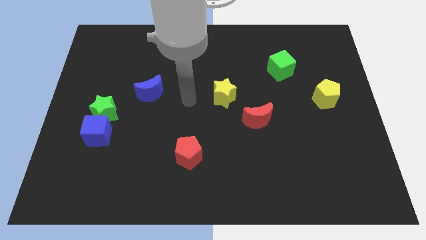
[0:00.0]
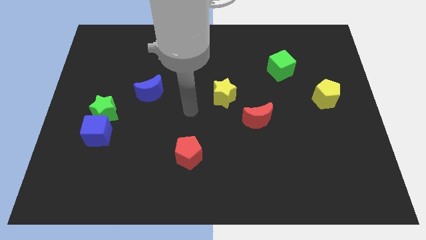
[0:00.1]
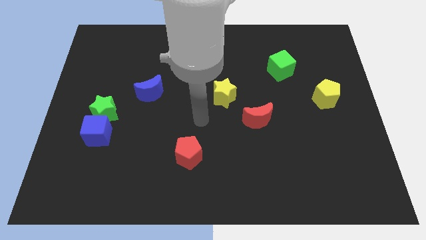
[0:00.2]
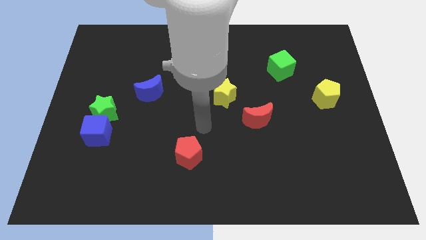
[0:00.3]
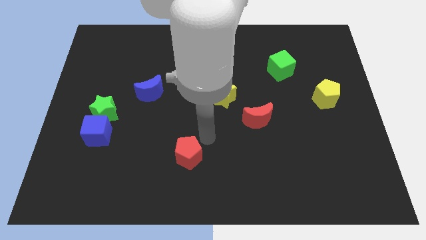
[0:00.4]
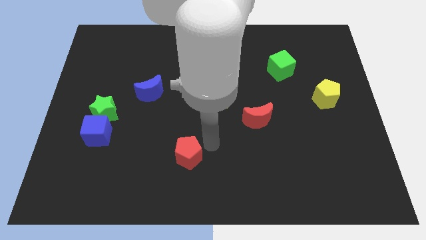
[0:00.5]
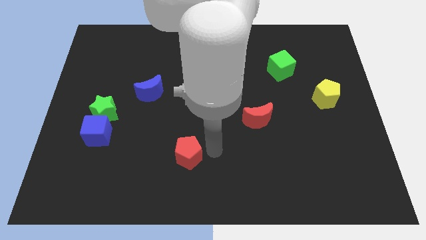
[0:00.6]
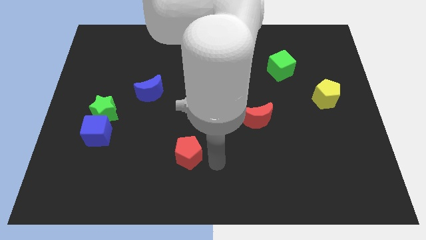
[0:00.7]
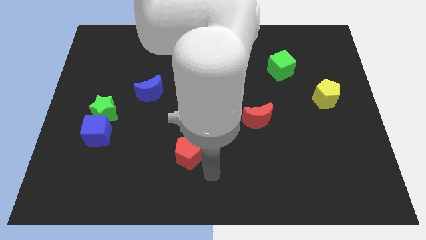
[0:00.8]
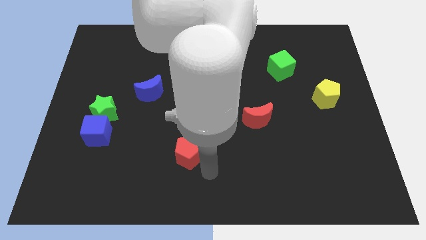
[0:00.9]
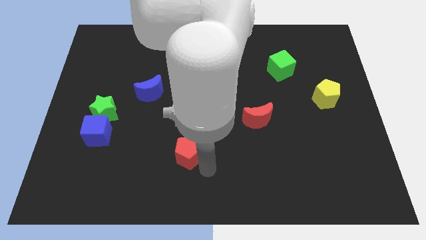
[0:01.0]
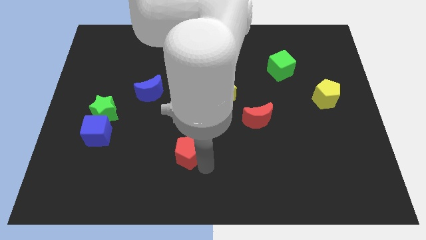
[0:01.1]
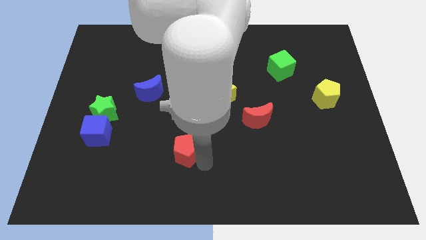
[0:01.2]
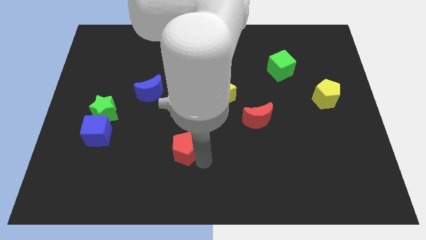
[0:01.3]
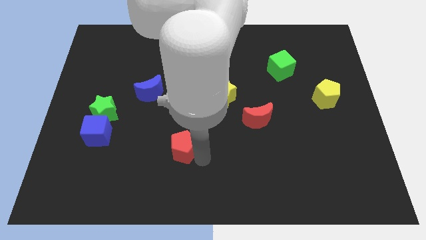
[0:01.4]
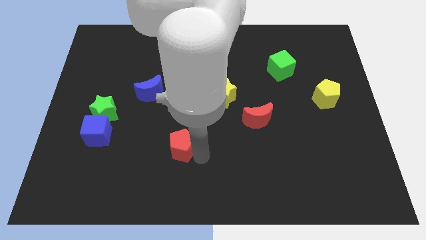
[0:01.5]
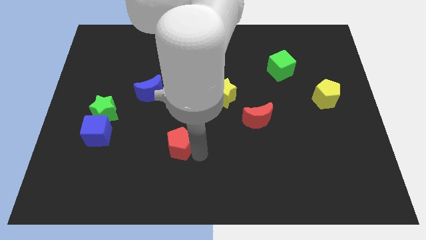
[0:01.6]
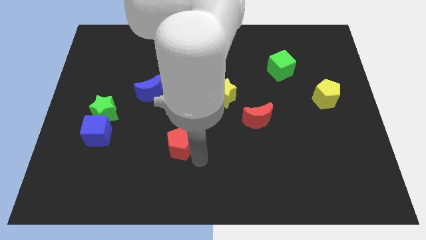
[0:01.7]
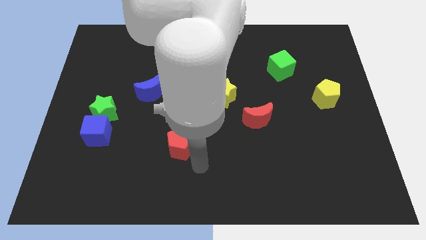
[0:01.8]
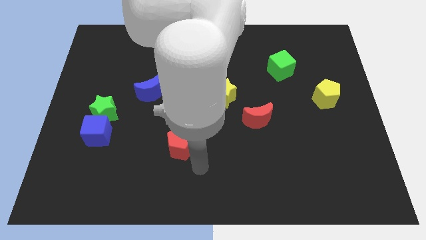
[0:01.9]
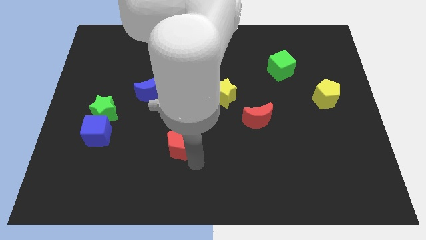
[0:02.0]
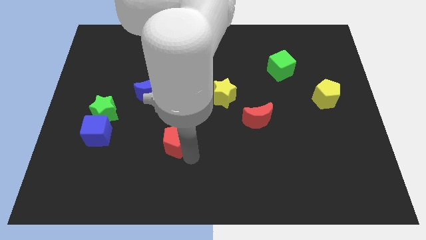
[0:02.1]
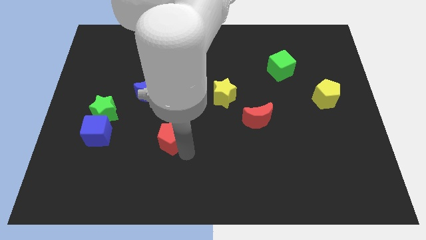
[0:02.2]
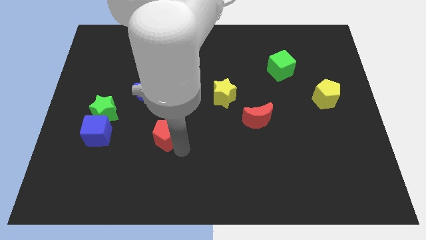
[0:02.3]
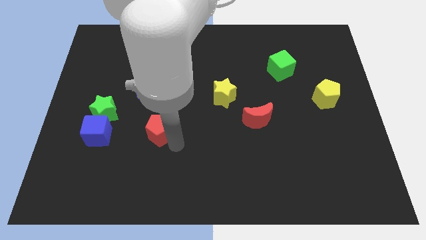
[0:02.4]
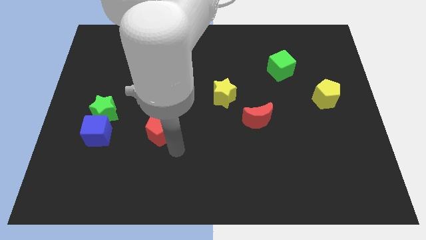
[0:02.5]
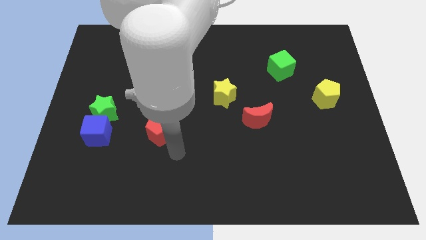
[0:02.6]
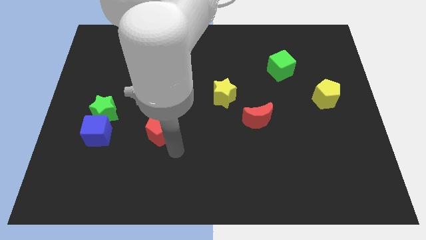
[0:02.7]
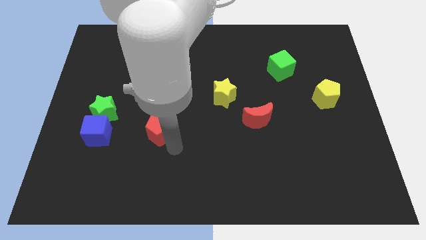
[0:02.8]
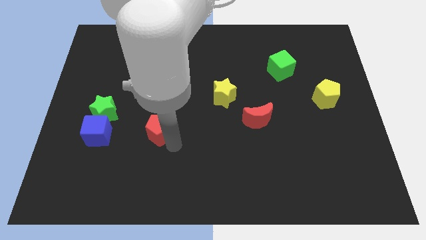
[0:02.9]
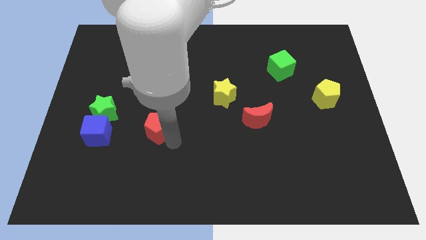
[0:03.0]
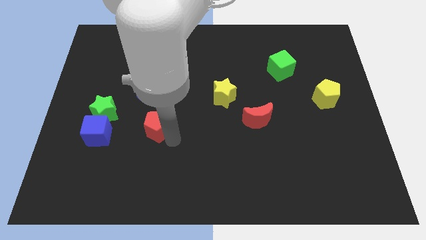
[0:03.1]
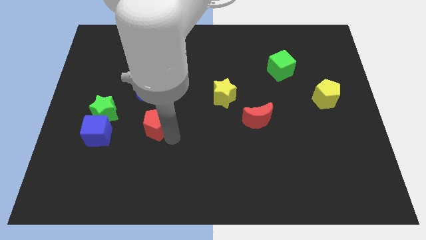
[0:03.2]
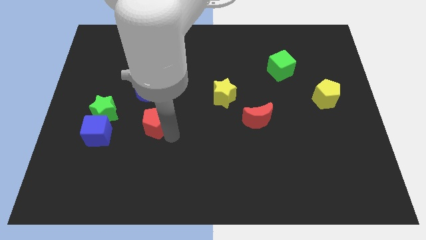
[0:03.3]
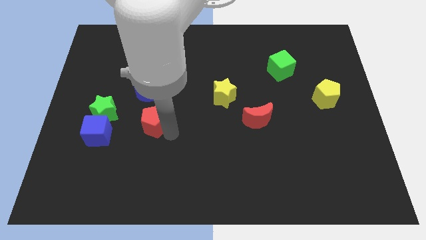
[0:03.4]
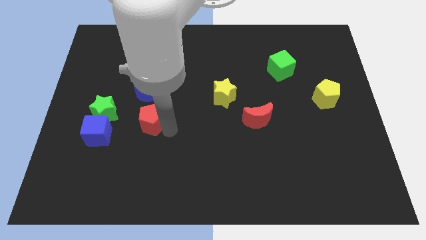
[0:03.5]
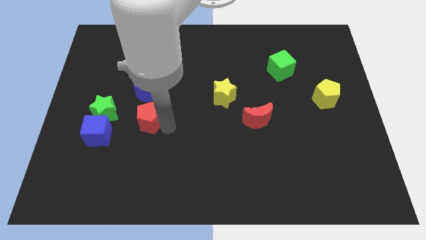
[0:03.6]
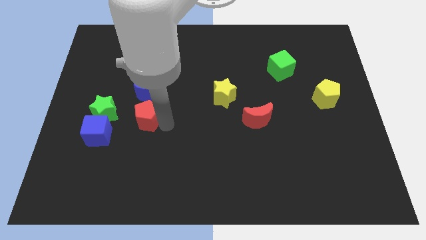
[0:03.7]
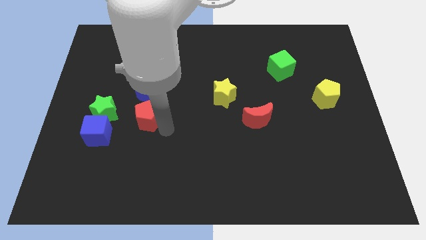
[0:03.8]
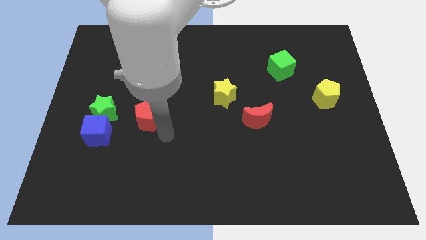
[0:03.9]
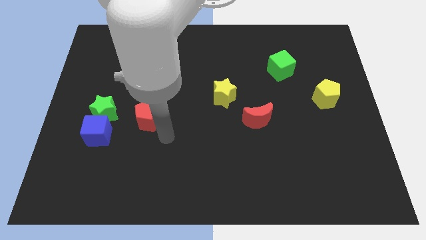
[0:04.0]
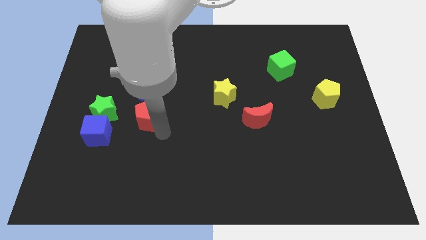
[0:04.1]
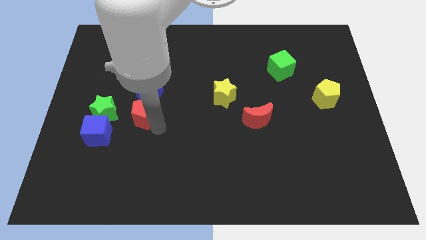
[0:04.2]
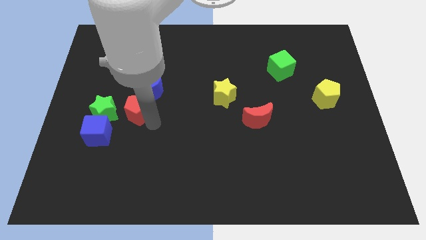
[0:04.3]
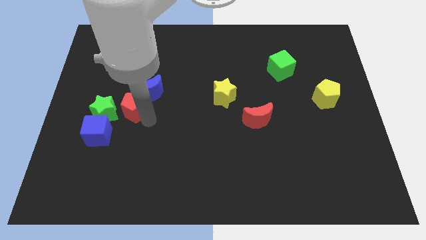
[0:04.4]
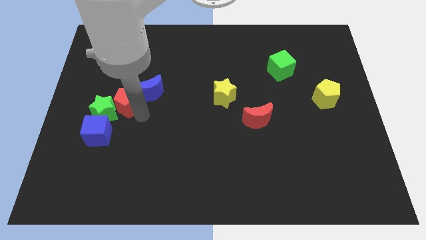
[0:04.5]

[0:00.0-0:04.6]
slide the red pentagon up and then to the left

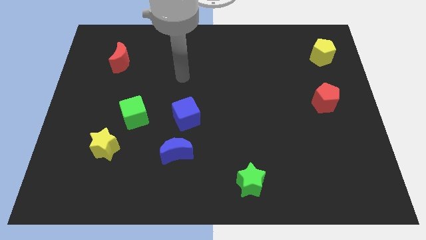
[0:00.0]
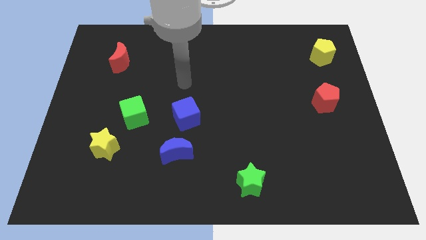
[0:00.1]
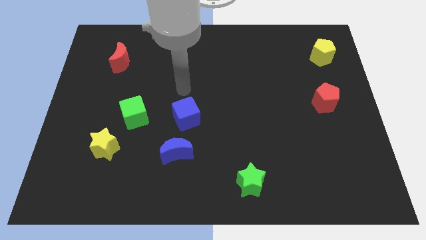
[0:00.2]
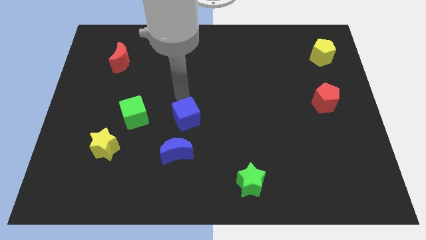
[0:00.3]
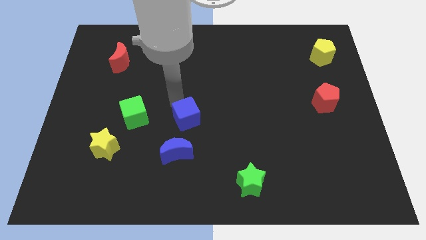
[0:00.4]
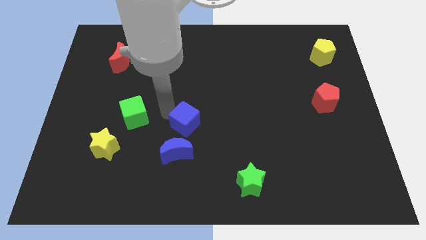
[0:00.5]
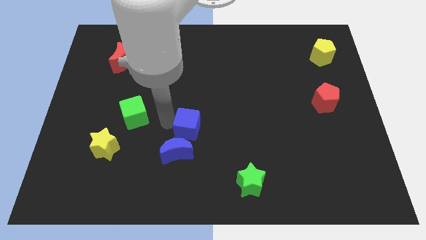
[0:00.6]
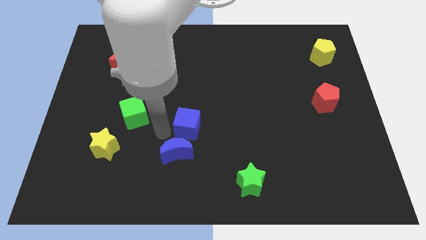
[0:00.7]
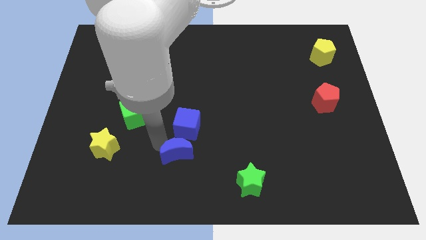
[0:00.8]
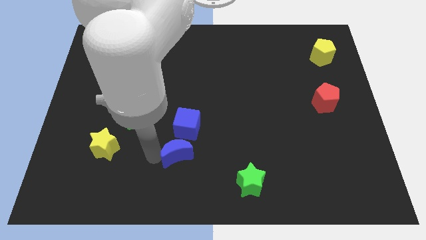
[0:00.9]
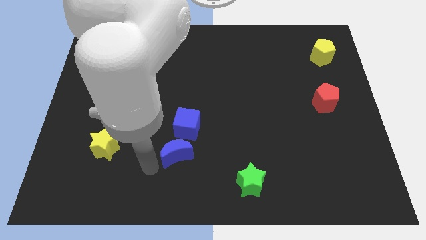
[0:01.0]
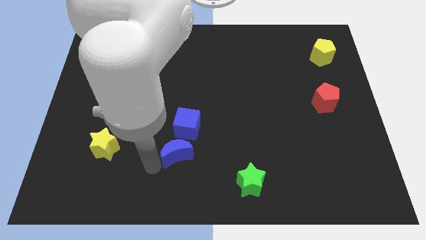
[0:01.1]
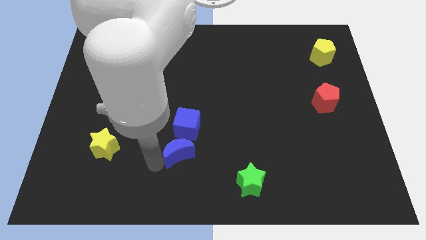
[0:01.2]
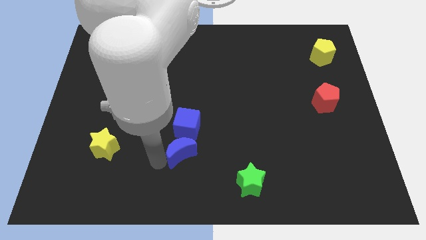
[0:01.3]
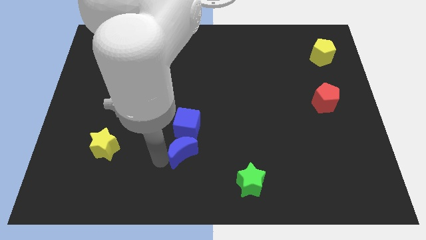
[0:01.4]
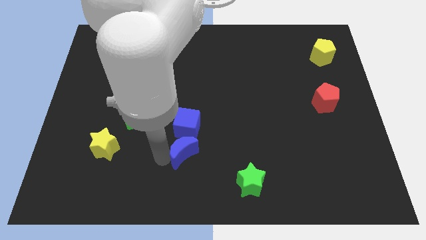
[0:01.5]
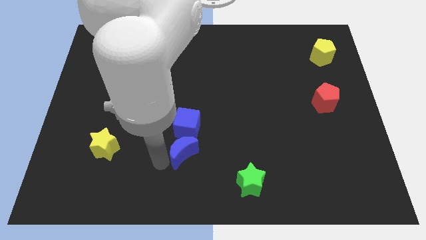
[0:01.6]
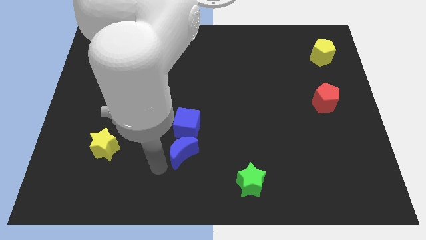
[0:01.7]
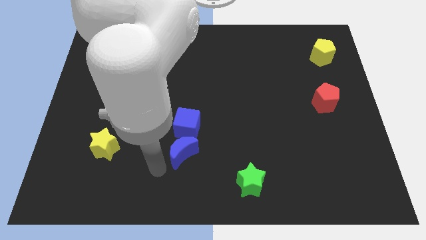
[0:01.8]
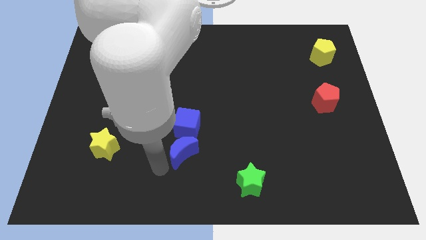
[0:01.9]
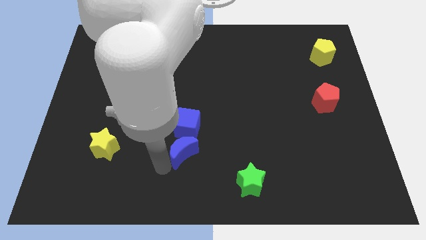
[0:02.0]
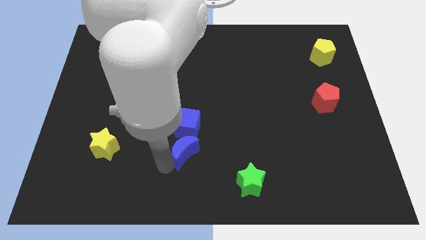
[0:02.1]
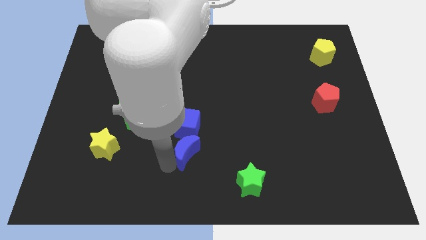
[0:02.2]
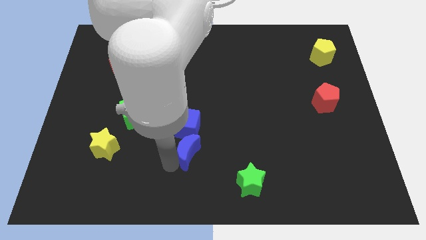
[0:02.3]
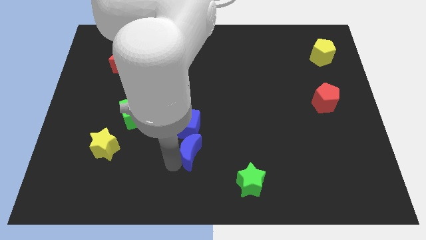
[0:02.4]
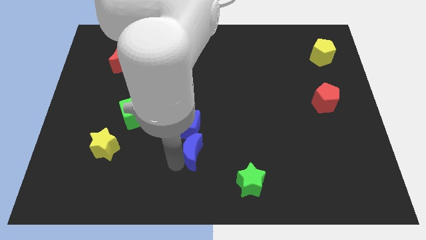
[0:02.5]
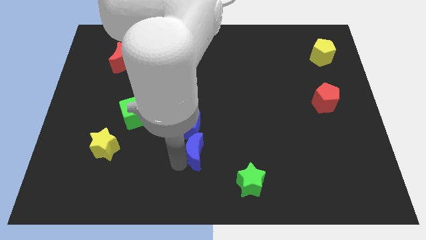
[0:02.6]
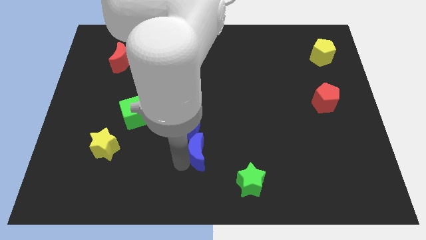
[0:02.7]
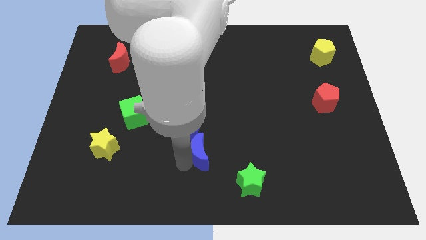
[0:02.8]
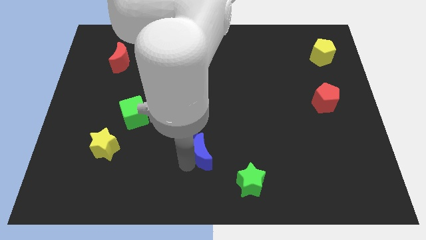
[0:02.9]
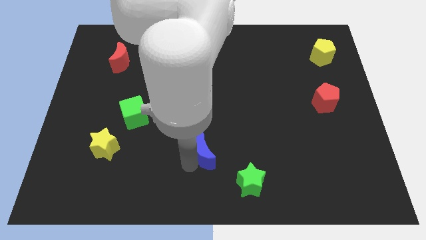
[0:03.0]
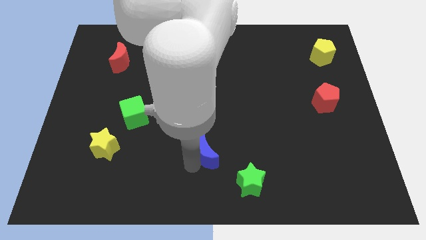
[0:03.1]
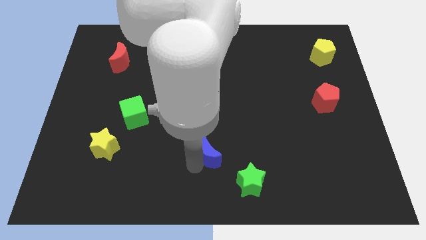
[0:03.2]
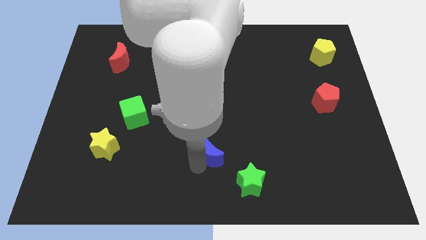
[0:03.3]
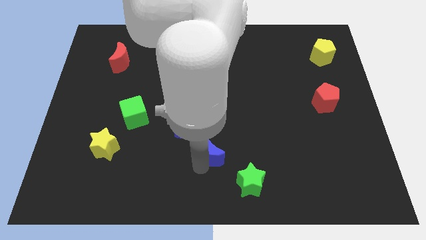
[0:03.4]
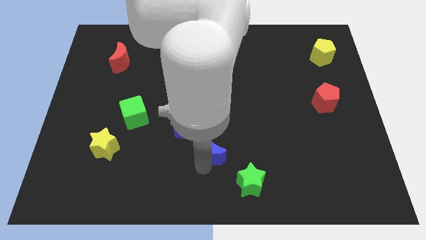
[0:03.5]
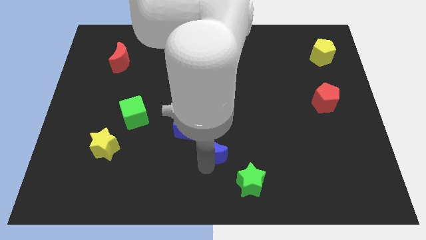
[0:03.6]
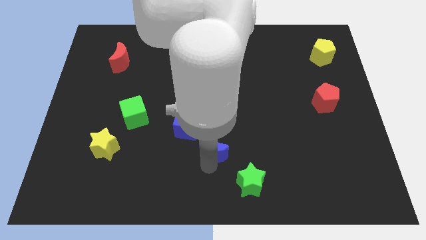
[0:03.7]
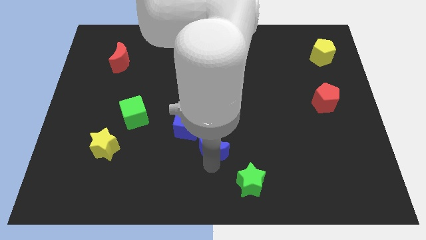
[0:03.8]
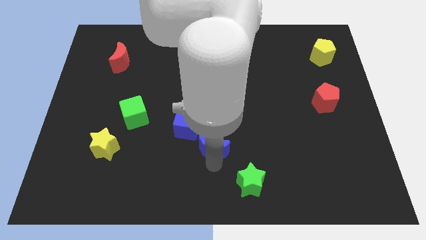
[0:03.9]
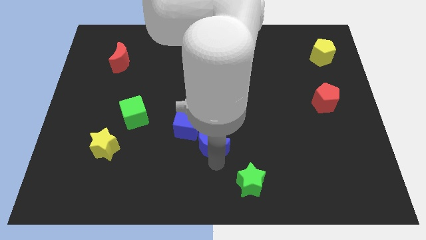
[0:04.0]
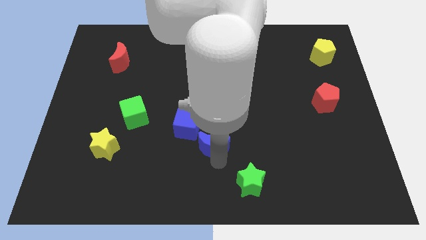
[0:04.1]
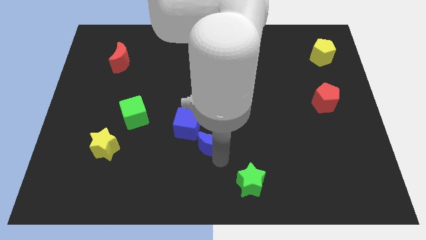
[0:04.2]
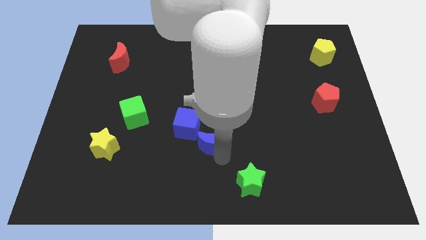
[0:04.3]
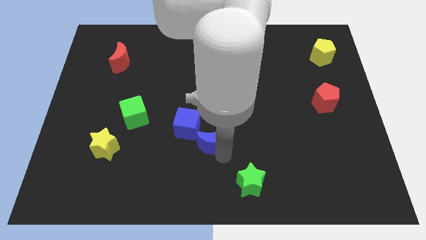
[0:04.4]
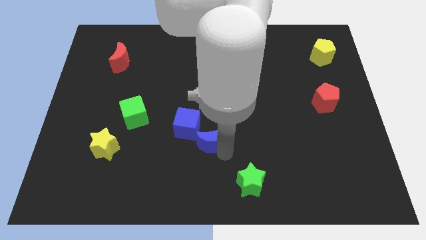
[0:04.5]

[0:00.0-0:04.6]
push the blue moon up and right a little
